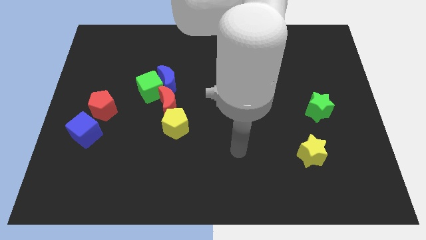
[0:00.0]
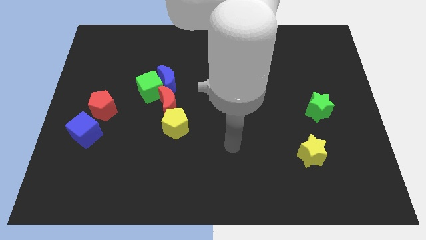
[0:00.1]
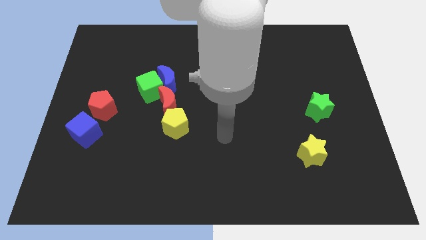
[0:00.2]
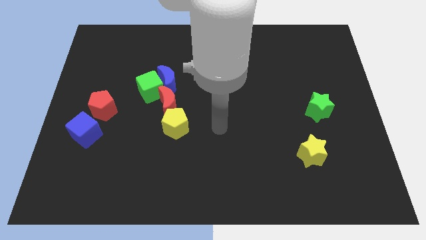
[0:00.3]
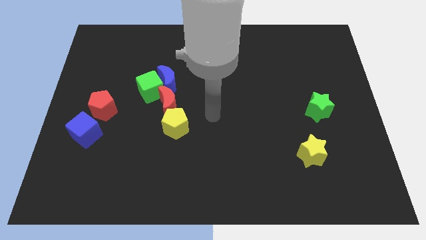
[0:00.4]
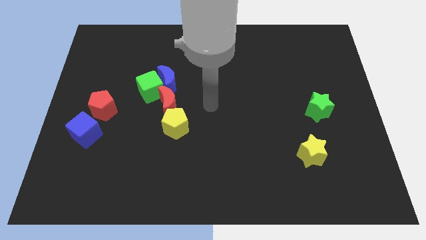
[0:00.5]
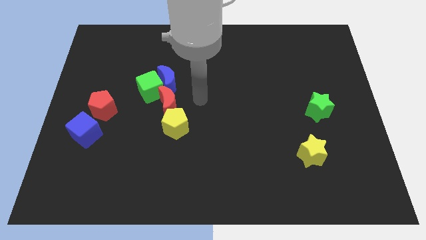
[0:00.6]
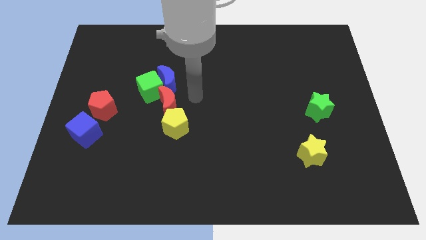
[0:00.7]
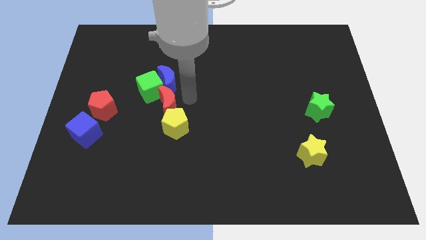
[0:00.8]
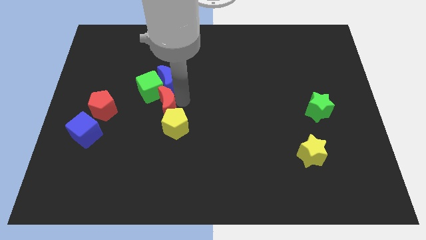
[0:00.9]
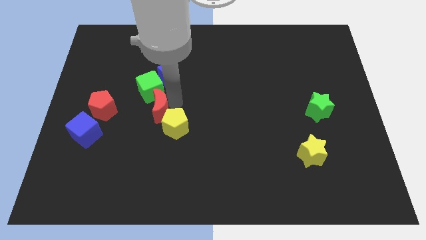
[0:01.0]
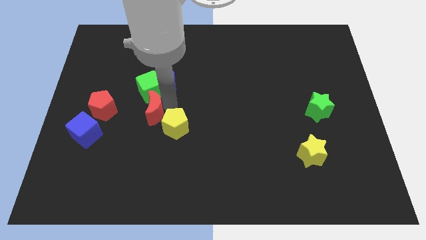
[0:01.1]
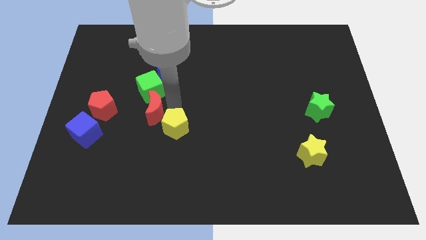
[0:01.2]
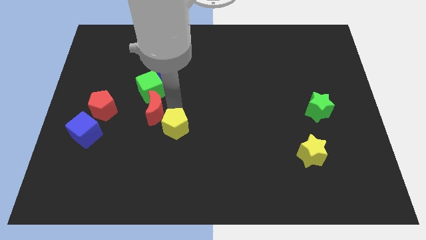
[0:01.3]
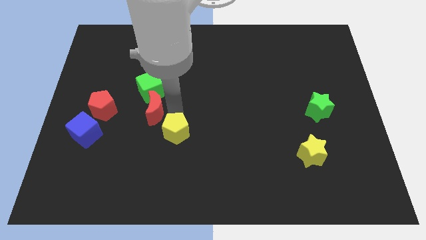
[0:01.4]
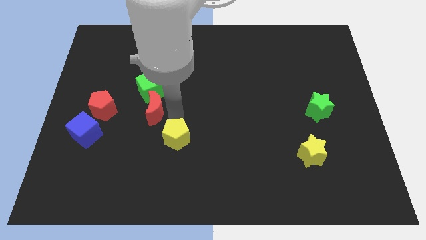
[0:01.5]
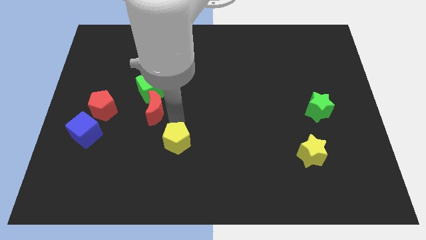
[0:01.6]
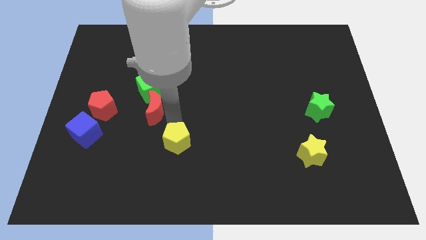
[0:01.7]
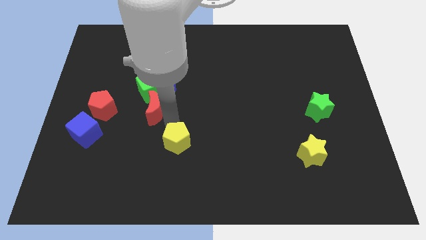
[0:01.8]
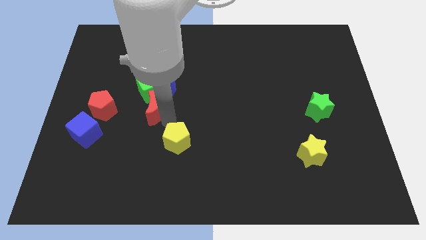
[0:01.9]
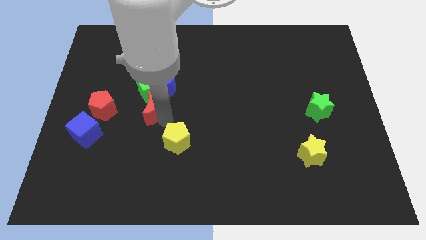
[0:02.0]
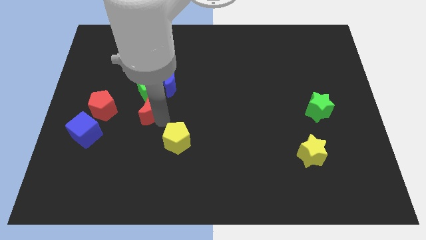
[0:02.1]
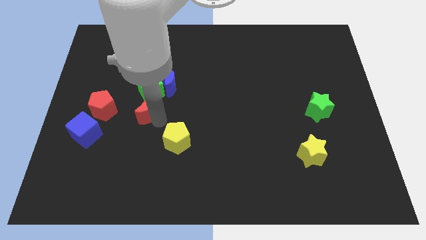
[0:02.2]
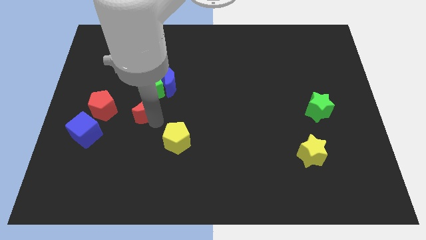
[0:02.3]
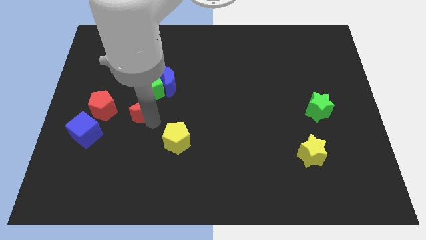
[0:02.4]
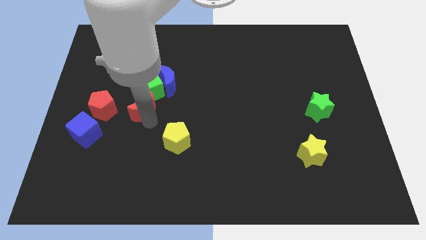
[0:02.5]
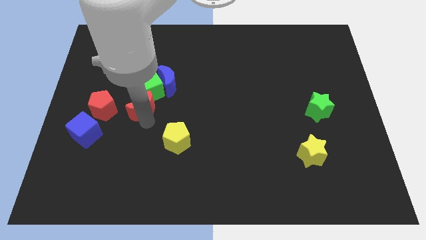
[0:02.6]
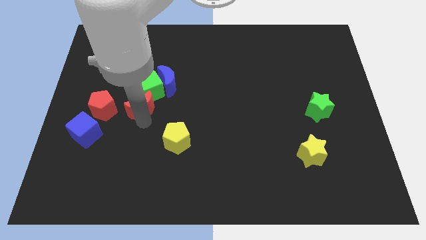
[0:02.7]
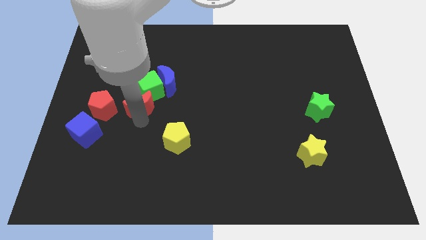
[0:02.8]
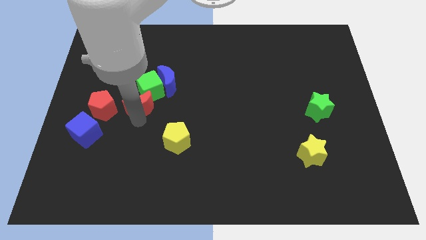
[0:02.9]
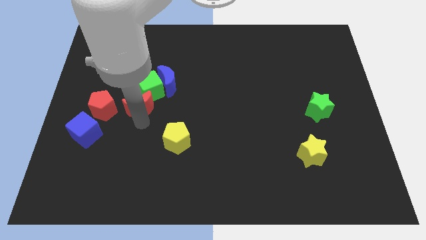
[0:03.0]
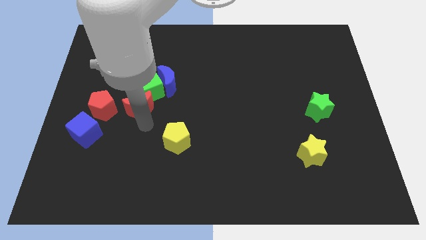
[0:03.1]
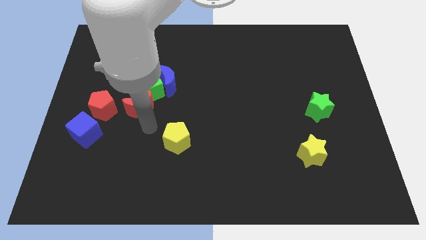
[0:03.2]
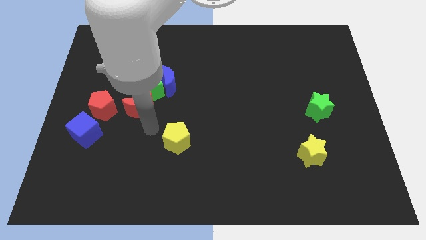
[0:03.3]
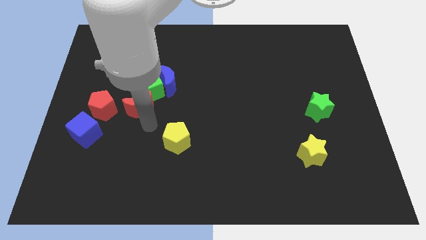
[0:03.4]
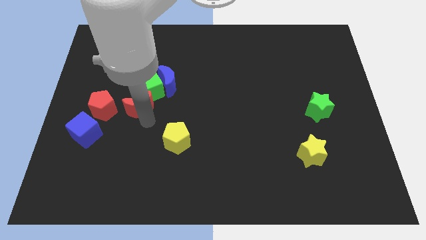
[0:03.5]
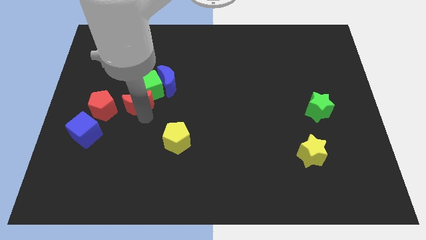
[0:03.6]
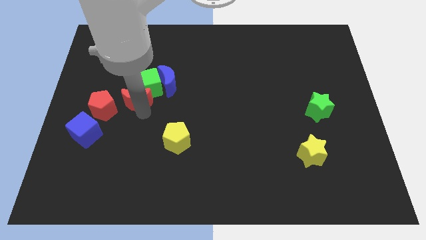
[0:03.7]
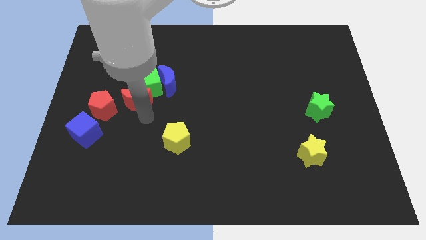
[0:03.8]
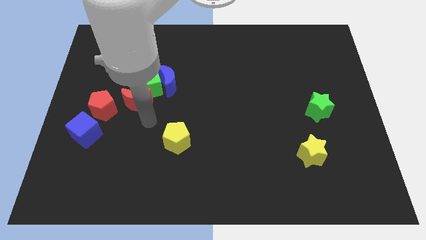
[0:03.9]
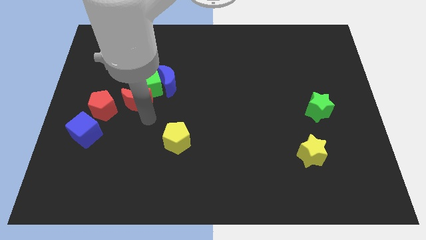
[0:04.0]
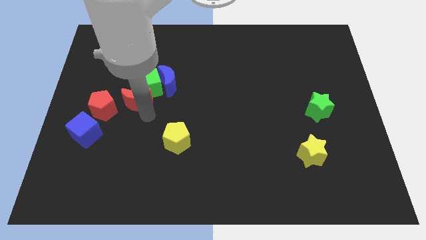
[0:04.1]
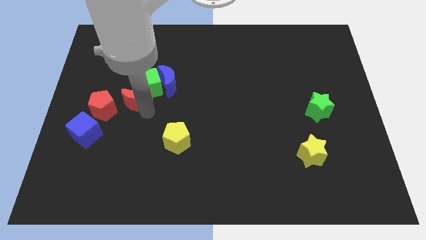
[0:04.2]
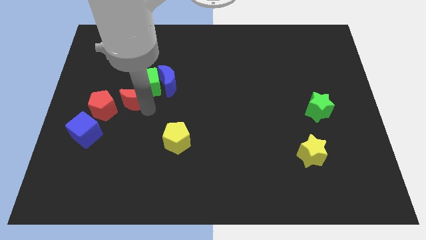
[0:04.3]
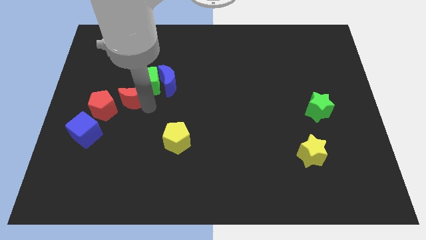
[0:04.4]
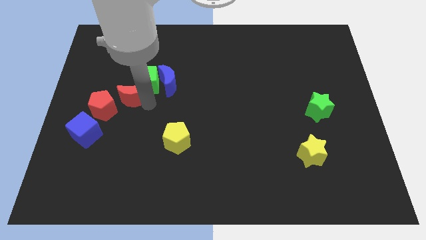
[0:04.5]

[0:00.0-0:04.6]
move the red moon upwards and to the left diagonally a little bit

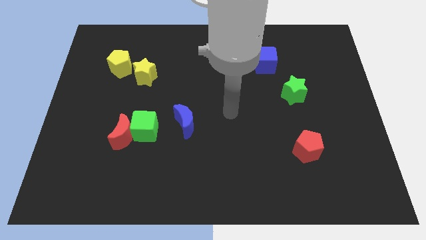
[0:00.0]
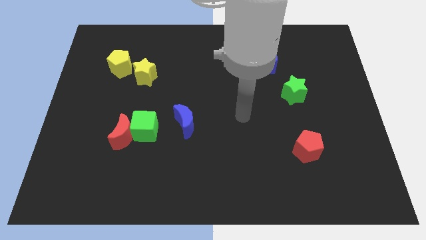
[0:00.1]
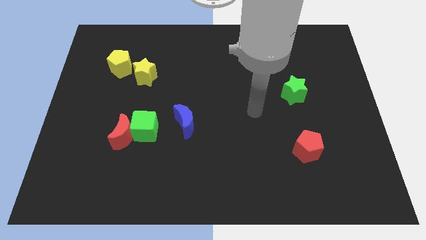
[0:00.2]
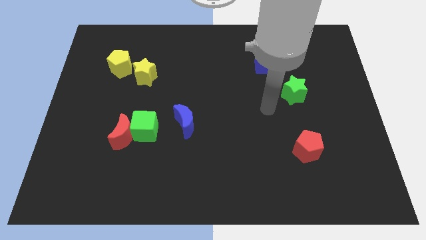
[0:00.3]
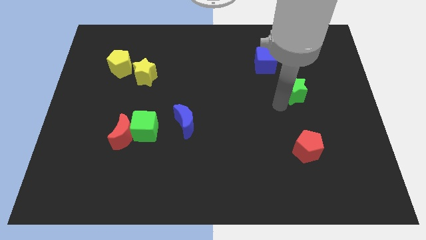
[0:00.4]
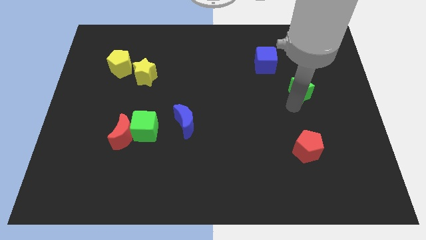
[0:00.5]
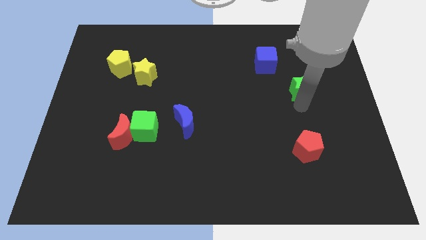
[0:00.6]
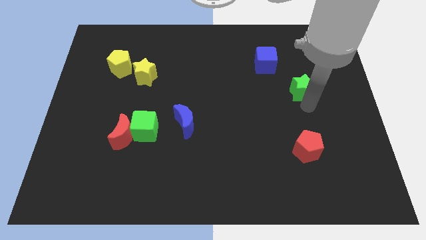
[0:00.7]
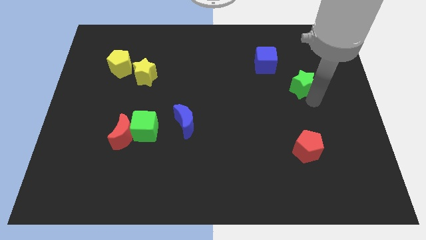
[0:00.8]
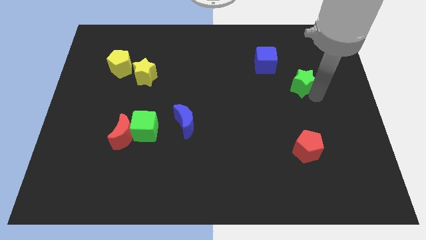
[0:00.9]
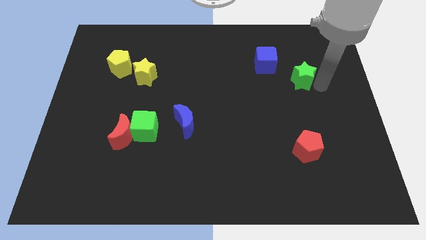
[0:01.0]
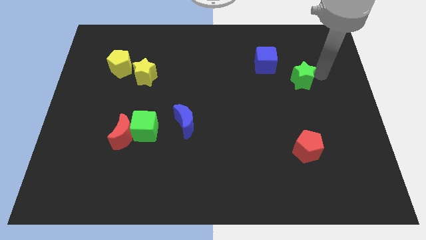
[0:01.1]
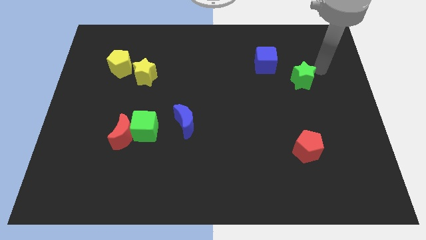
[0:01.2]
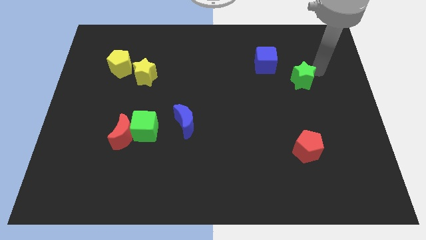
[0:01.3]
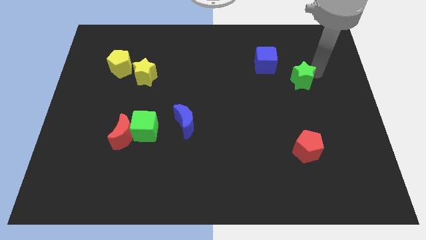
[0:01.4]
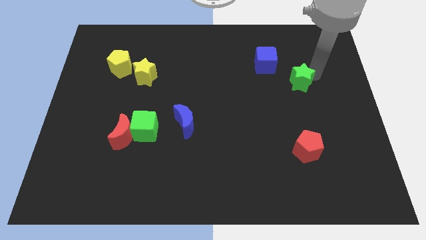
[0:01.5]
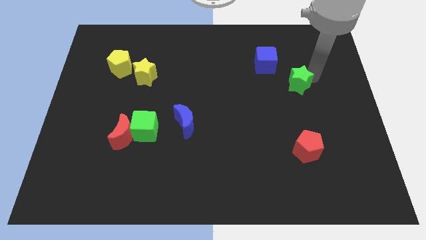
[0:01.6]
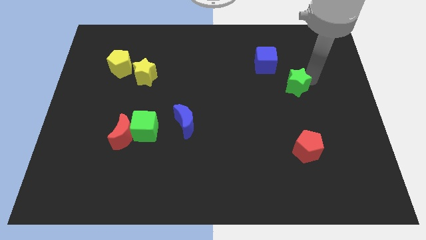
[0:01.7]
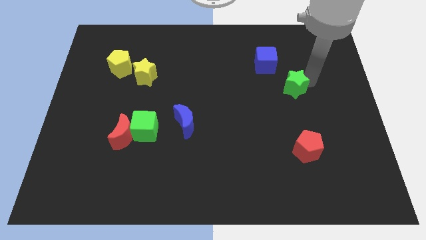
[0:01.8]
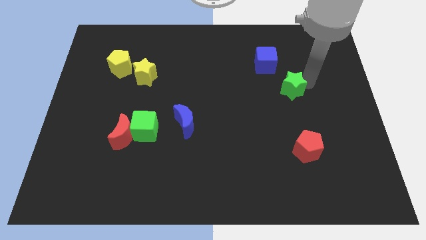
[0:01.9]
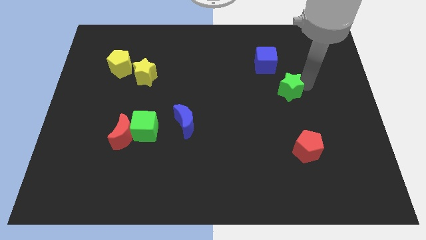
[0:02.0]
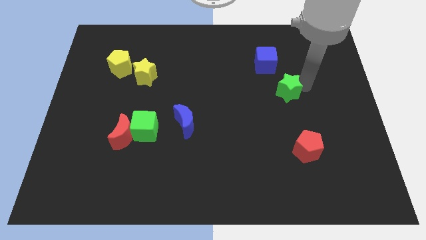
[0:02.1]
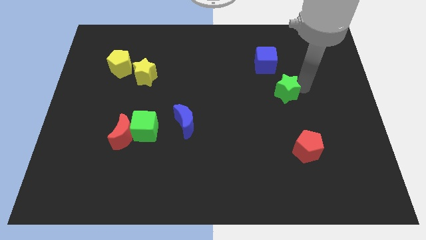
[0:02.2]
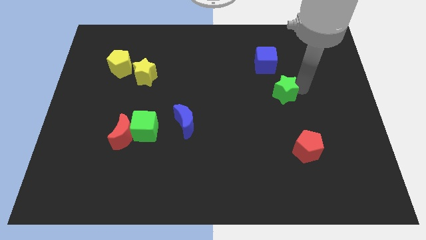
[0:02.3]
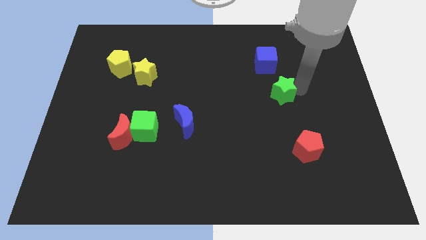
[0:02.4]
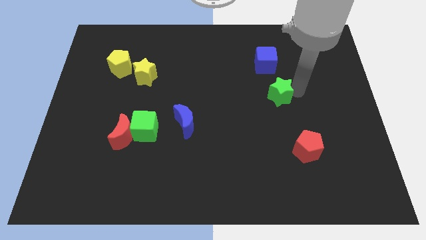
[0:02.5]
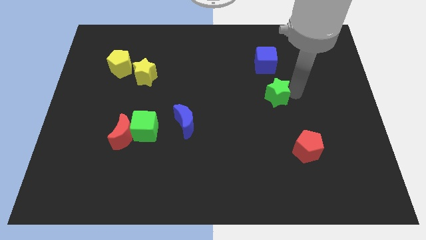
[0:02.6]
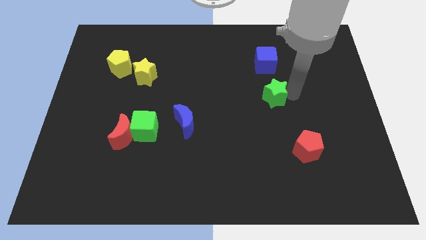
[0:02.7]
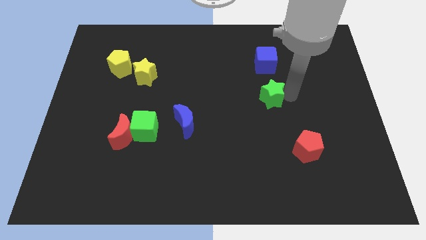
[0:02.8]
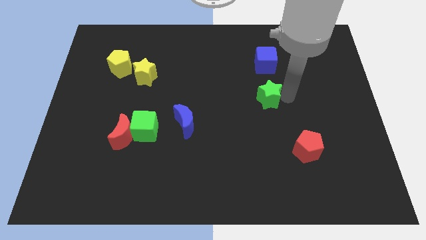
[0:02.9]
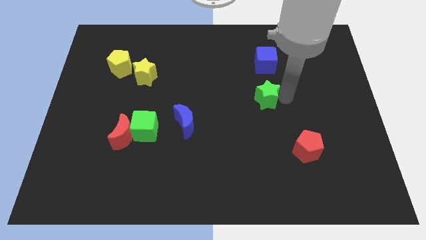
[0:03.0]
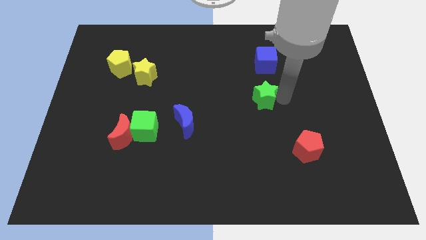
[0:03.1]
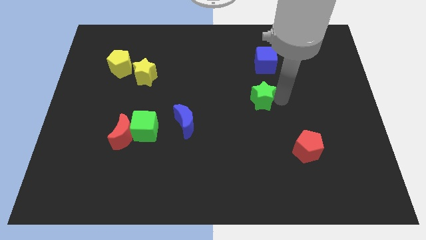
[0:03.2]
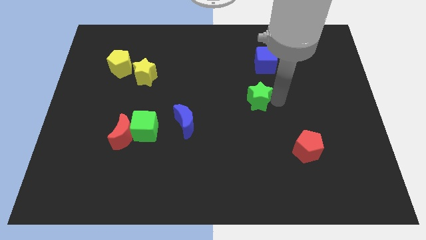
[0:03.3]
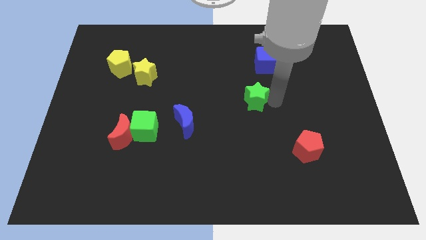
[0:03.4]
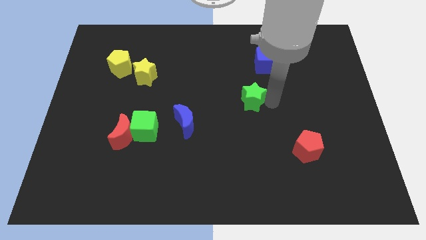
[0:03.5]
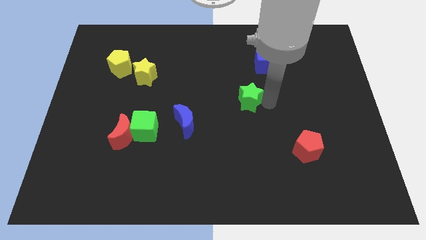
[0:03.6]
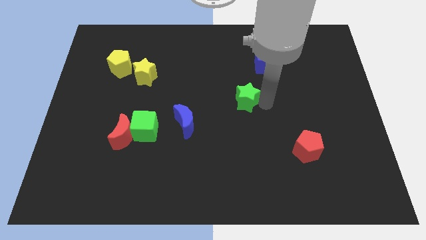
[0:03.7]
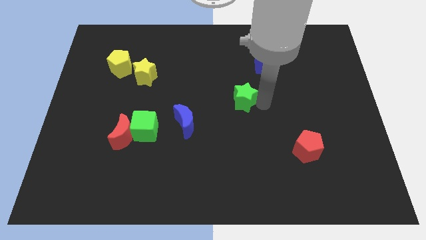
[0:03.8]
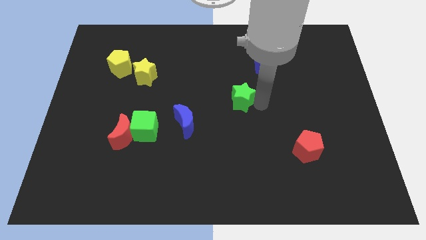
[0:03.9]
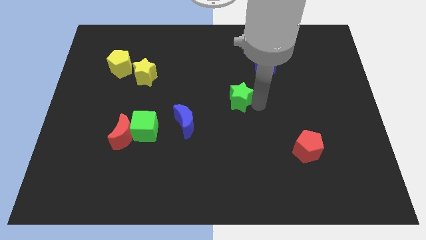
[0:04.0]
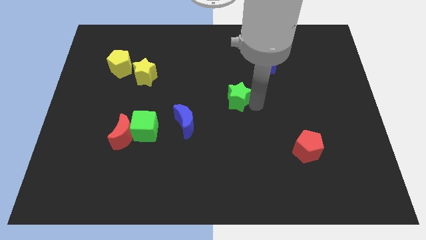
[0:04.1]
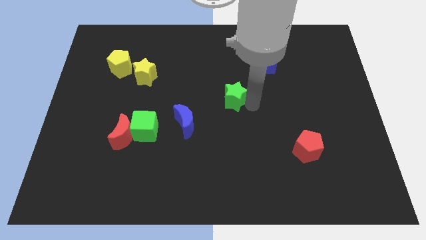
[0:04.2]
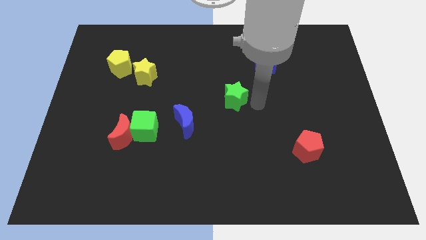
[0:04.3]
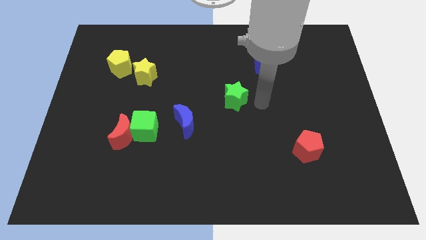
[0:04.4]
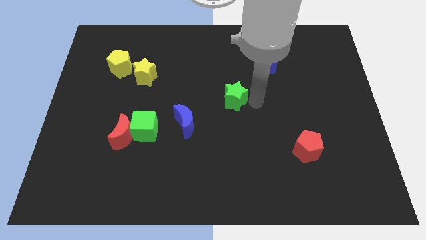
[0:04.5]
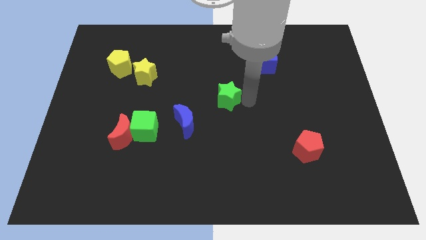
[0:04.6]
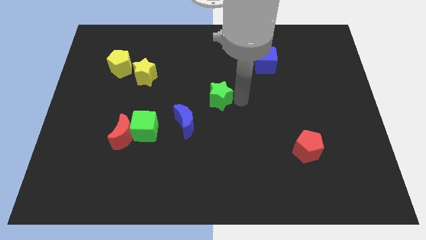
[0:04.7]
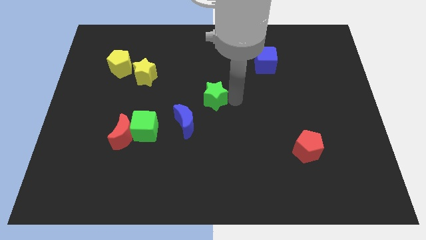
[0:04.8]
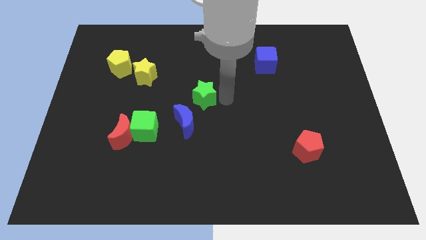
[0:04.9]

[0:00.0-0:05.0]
move the green star left
